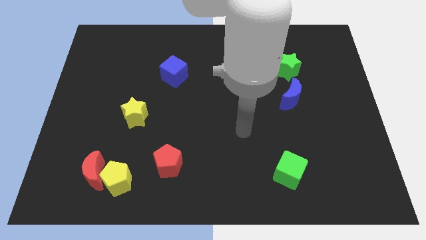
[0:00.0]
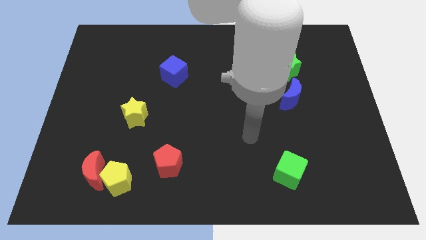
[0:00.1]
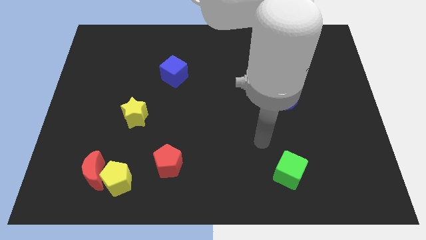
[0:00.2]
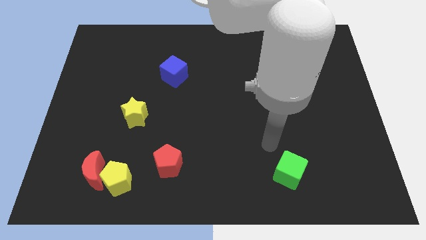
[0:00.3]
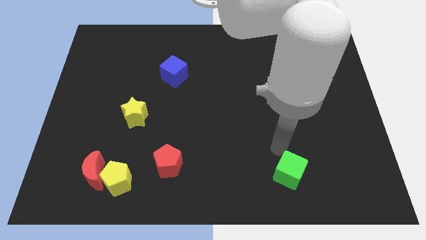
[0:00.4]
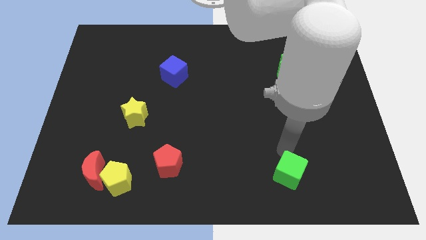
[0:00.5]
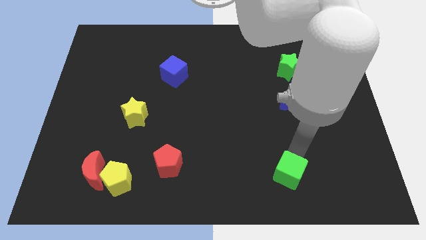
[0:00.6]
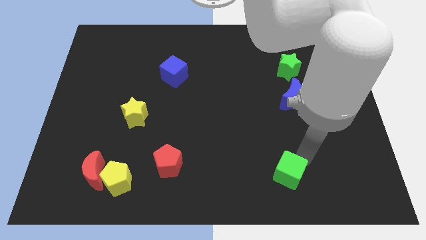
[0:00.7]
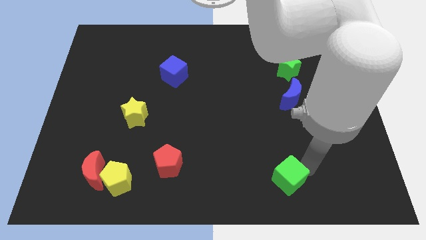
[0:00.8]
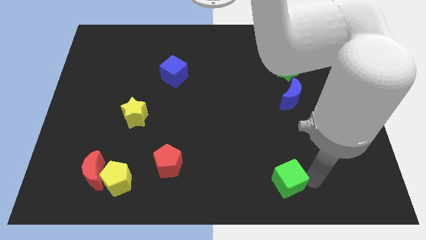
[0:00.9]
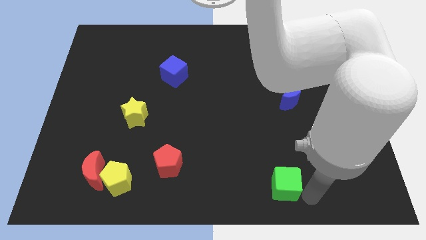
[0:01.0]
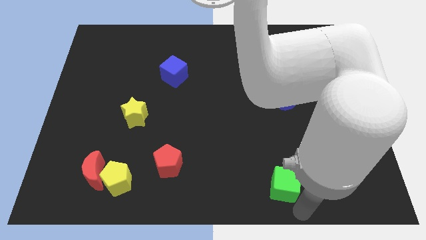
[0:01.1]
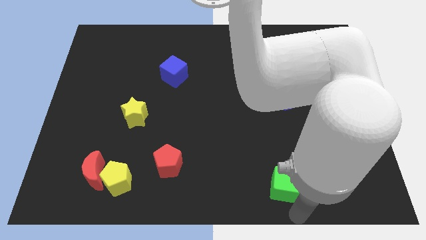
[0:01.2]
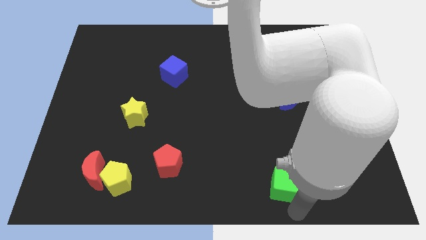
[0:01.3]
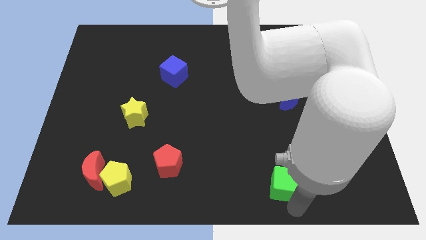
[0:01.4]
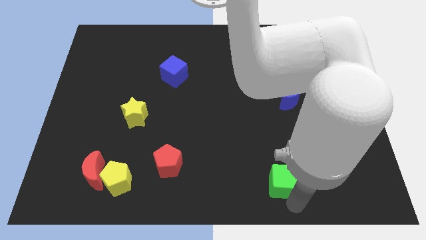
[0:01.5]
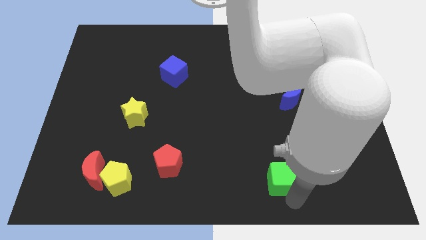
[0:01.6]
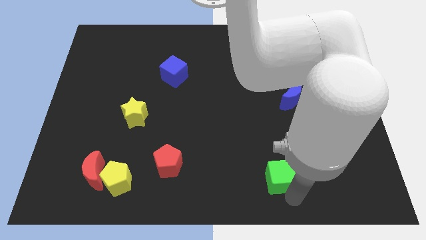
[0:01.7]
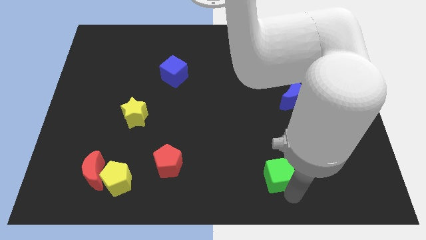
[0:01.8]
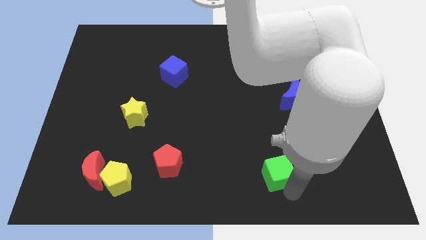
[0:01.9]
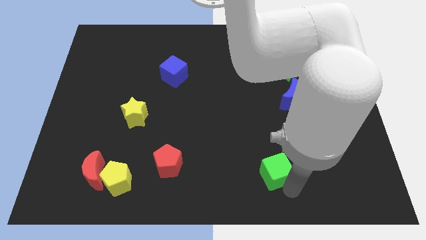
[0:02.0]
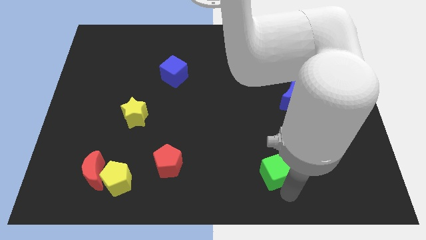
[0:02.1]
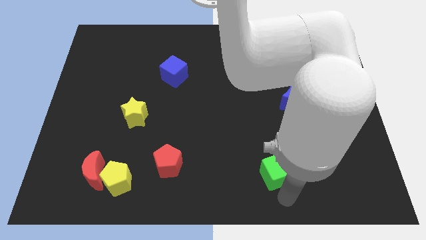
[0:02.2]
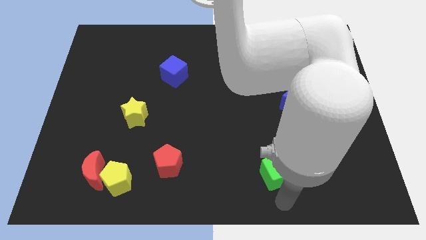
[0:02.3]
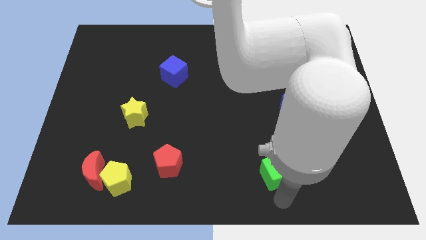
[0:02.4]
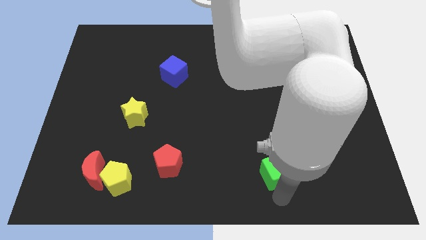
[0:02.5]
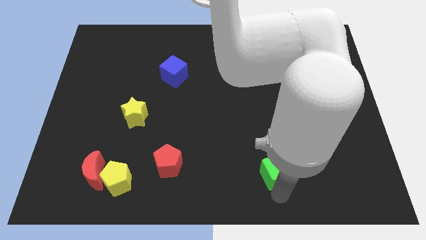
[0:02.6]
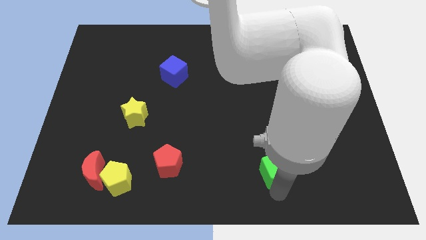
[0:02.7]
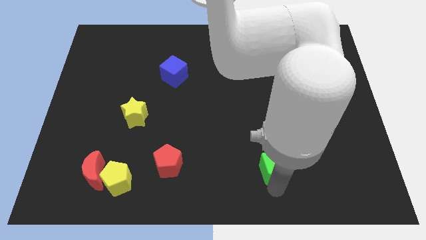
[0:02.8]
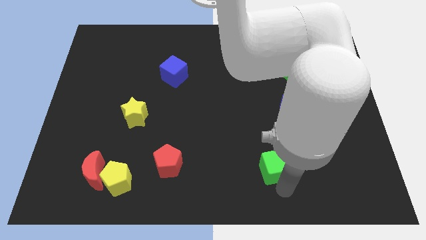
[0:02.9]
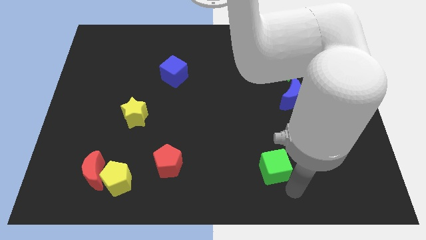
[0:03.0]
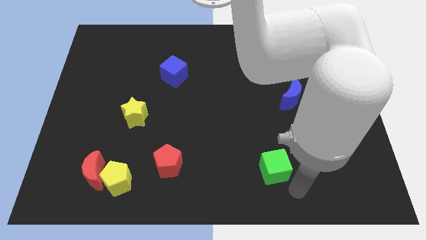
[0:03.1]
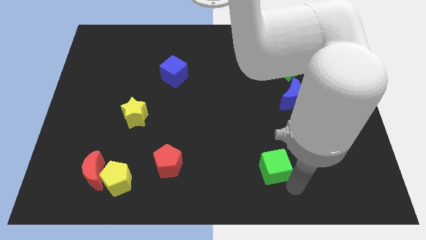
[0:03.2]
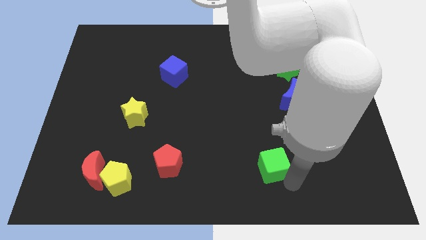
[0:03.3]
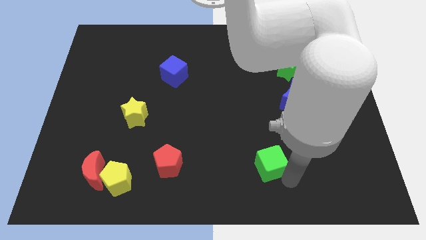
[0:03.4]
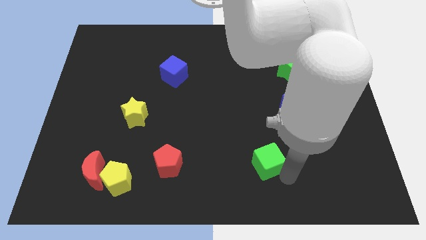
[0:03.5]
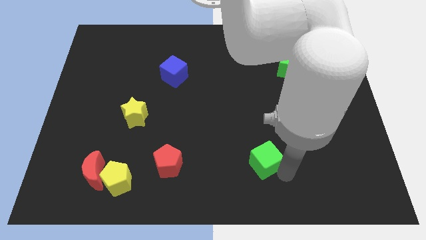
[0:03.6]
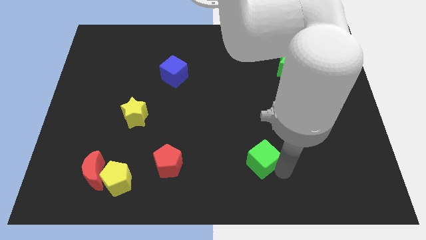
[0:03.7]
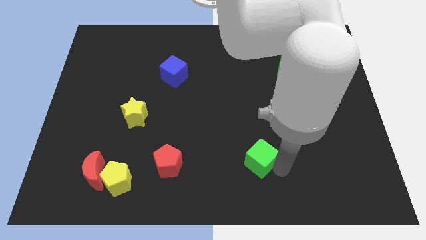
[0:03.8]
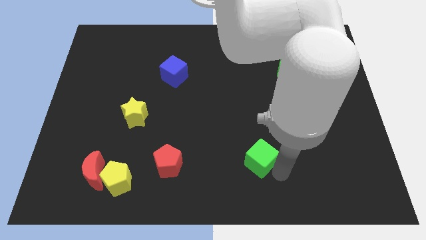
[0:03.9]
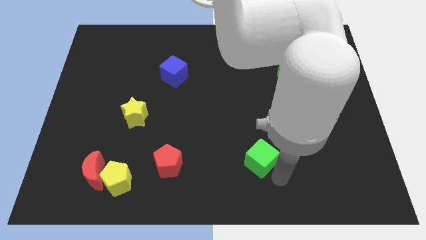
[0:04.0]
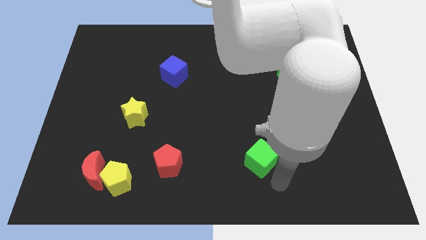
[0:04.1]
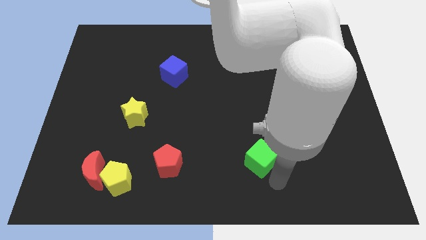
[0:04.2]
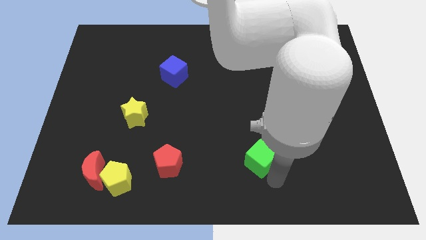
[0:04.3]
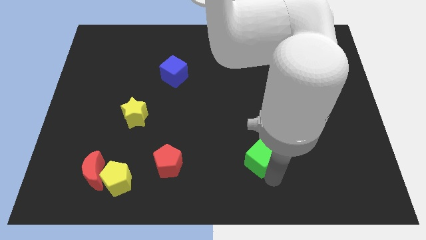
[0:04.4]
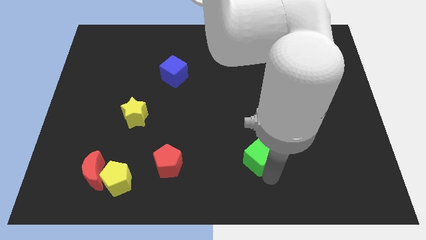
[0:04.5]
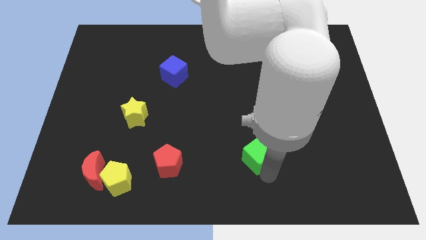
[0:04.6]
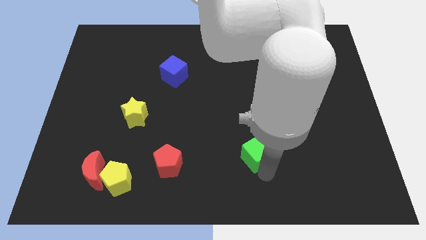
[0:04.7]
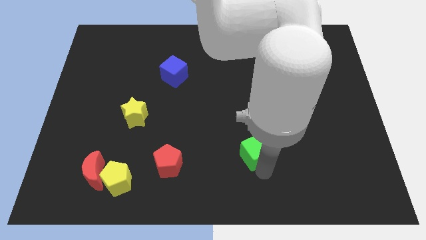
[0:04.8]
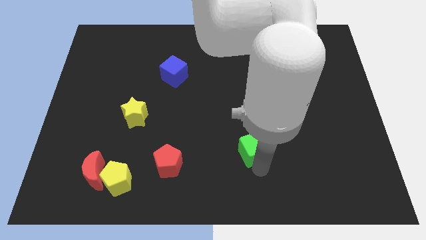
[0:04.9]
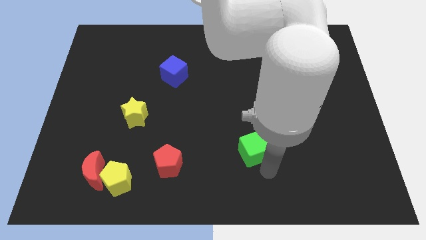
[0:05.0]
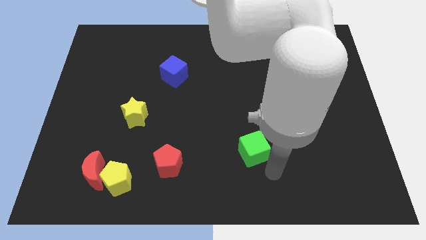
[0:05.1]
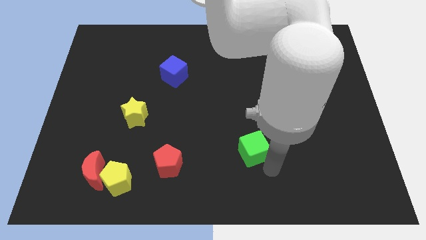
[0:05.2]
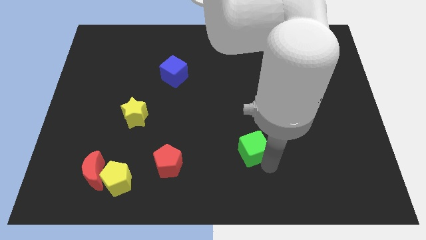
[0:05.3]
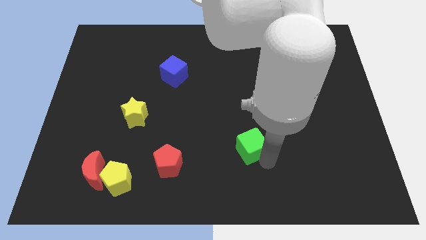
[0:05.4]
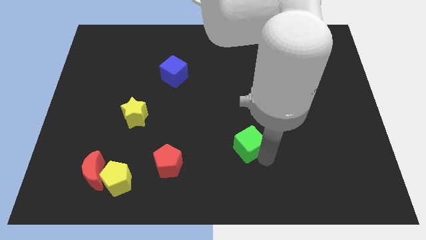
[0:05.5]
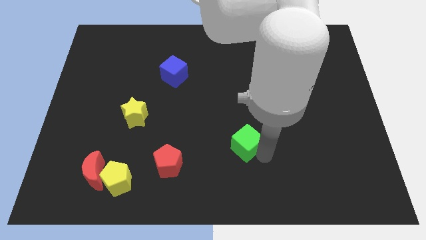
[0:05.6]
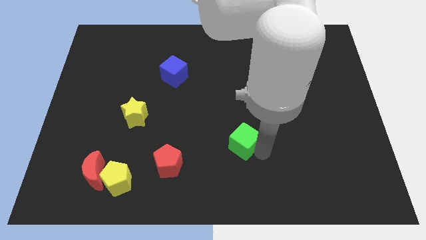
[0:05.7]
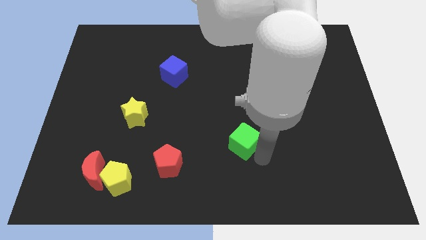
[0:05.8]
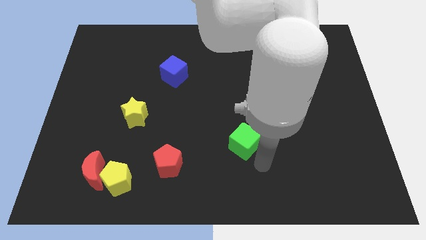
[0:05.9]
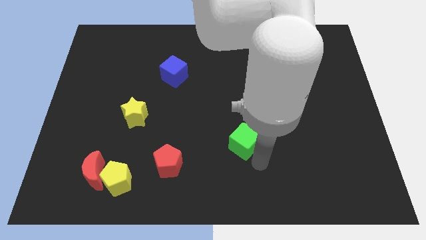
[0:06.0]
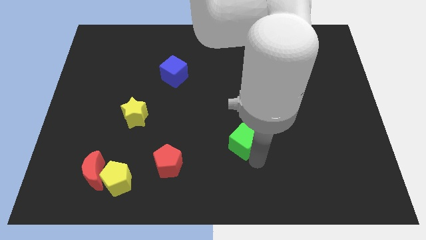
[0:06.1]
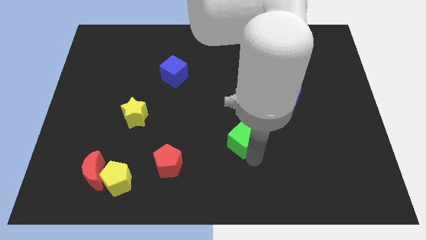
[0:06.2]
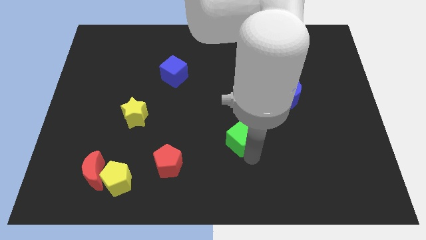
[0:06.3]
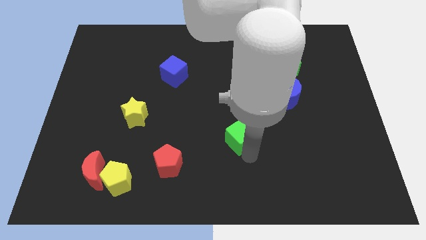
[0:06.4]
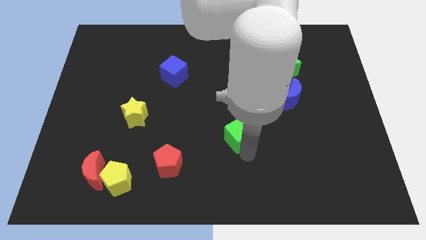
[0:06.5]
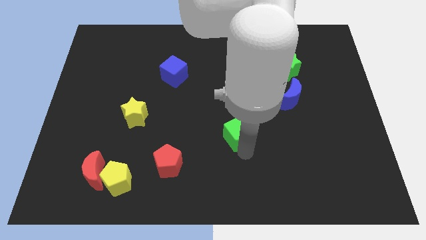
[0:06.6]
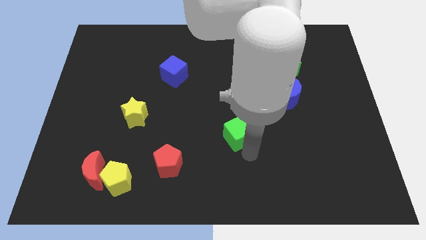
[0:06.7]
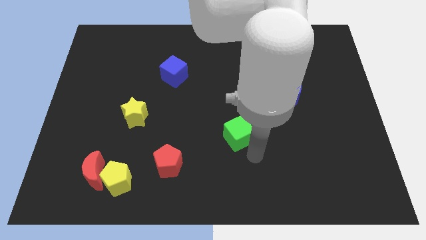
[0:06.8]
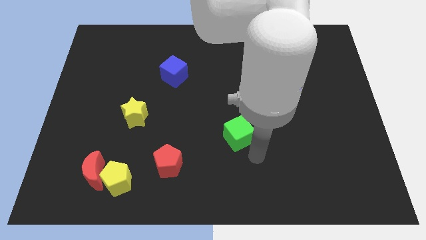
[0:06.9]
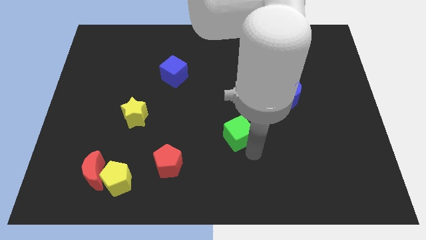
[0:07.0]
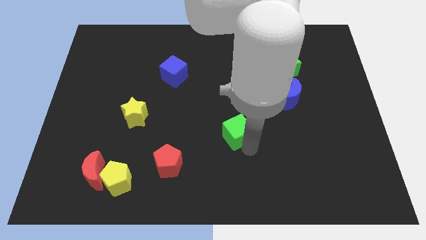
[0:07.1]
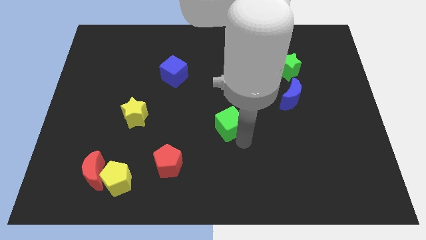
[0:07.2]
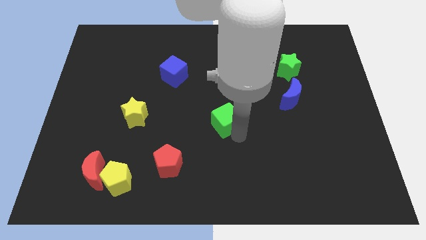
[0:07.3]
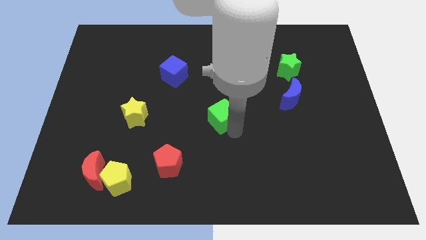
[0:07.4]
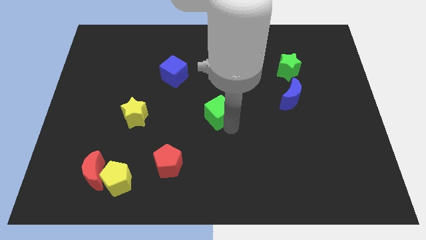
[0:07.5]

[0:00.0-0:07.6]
slide the green cube up and then left
